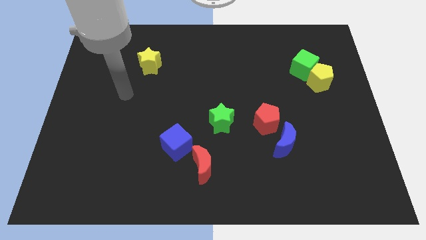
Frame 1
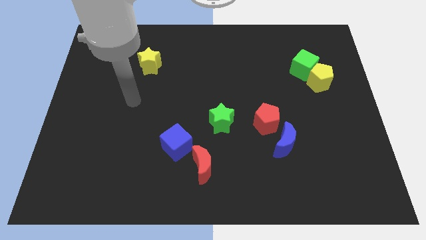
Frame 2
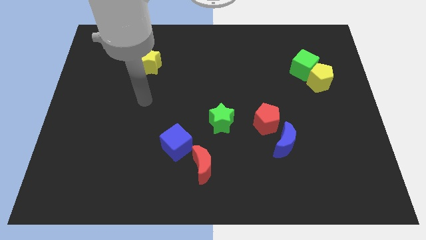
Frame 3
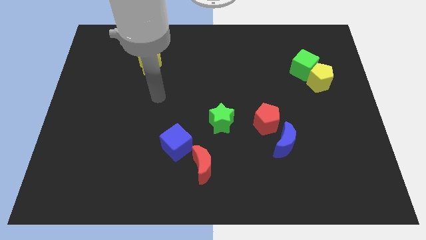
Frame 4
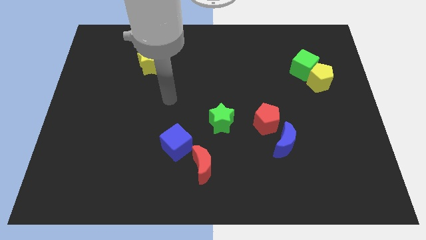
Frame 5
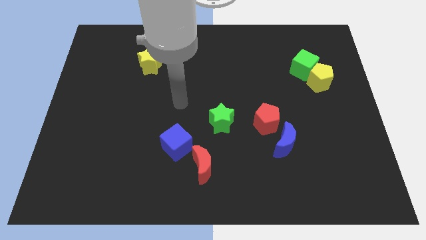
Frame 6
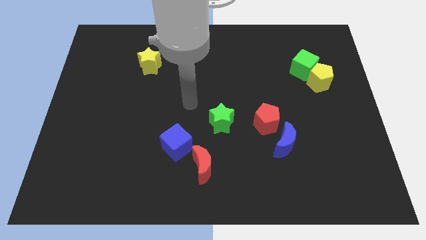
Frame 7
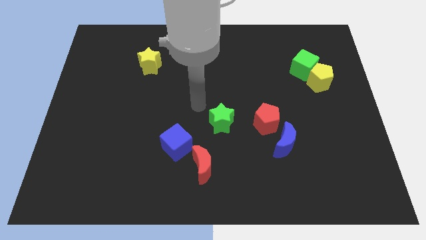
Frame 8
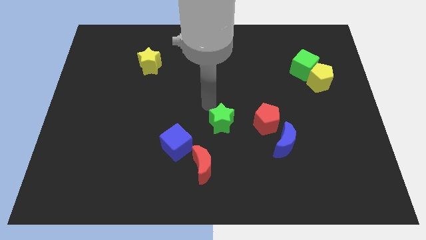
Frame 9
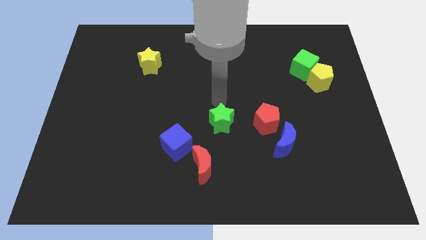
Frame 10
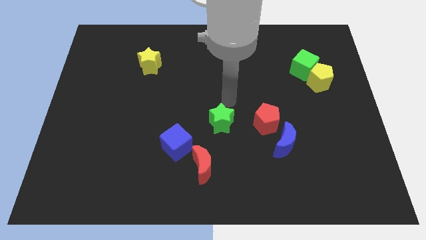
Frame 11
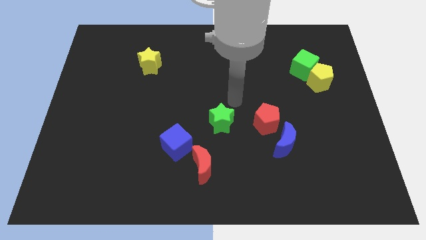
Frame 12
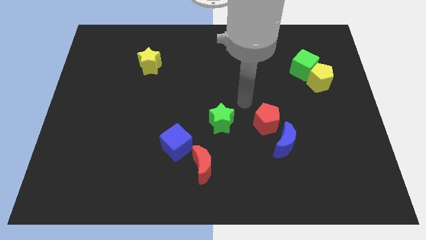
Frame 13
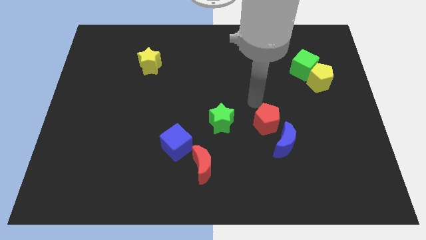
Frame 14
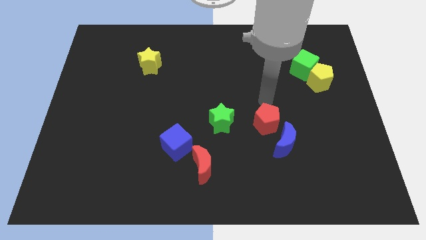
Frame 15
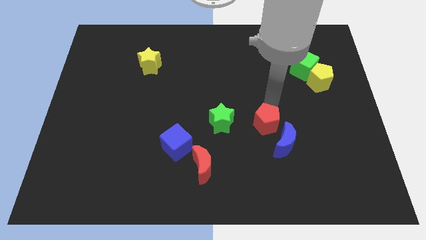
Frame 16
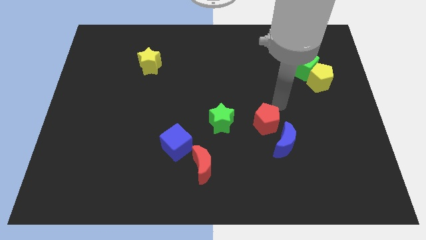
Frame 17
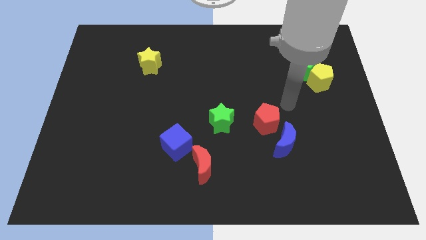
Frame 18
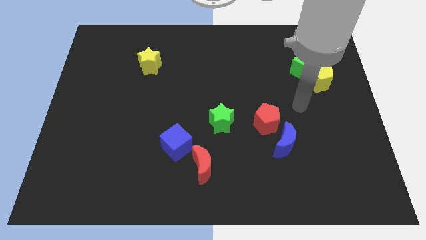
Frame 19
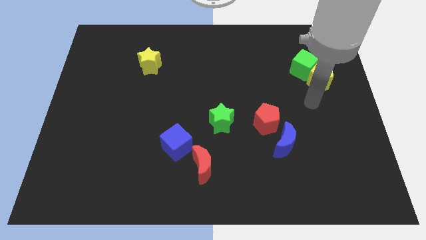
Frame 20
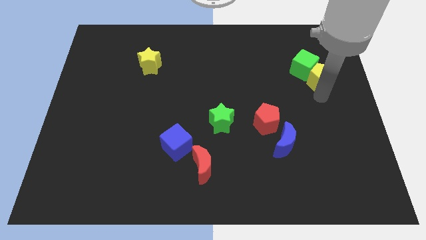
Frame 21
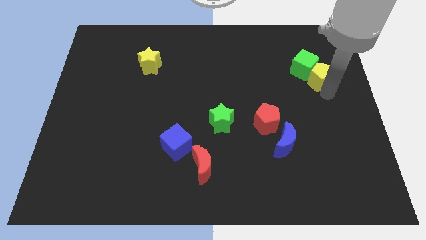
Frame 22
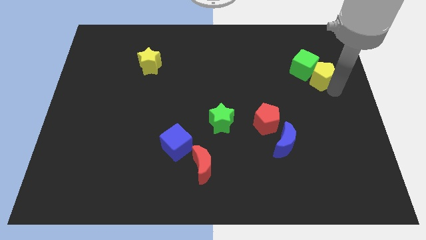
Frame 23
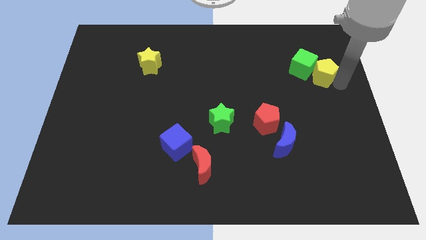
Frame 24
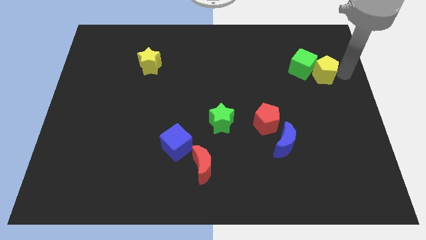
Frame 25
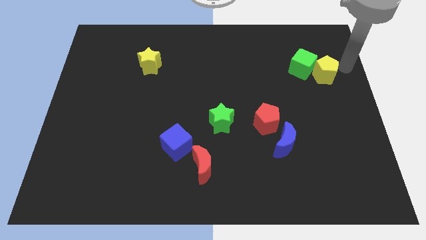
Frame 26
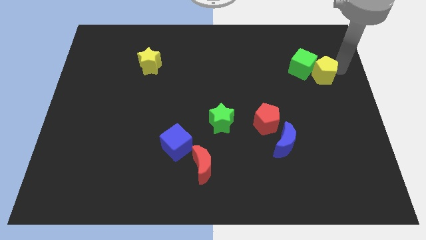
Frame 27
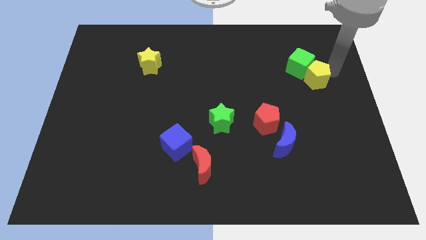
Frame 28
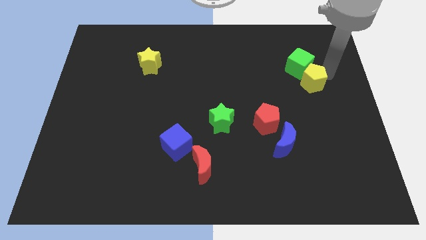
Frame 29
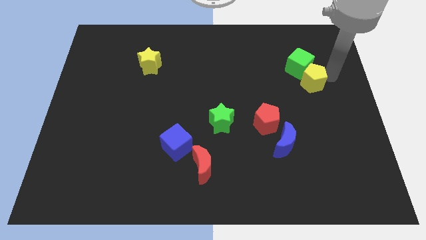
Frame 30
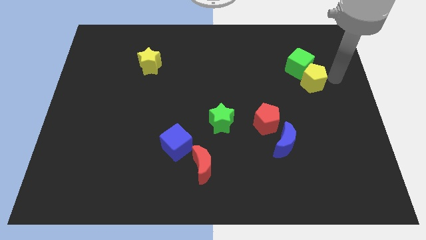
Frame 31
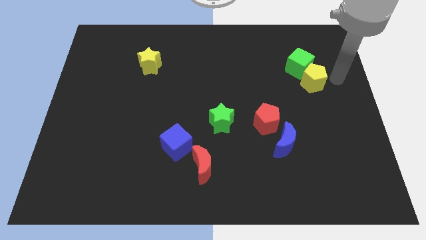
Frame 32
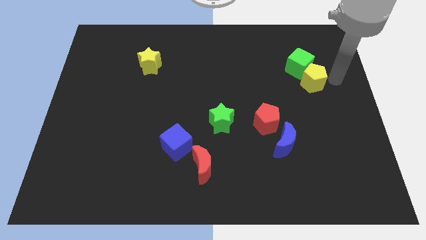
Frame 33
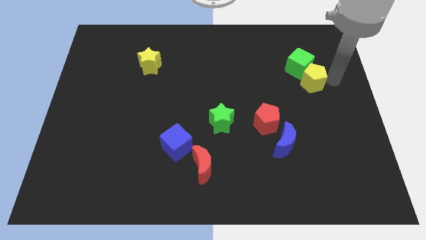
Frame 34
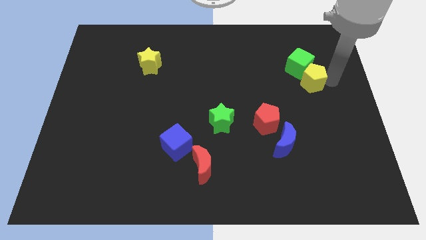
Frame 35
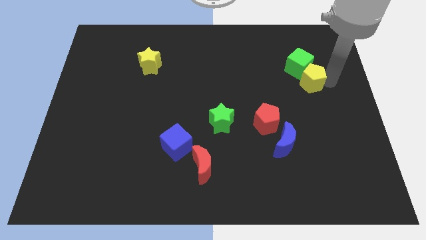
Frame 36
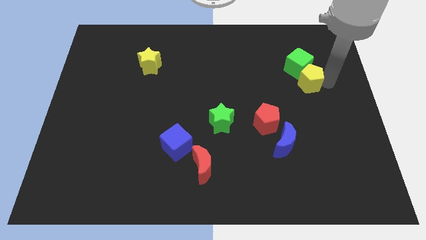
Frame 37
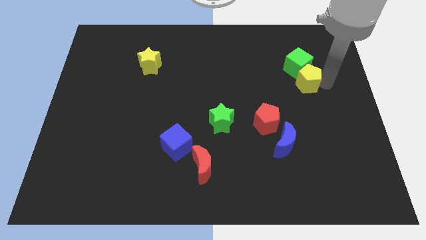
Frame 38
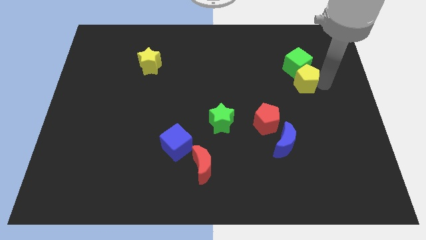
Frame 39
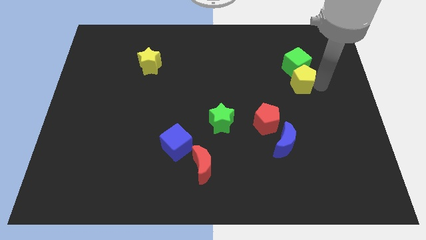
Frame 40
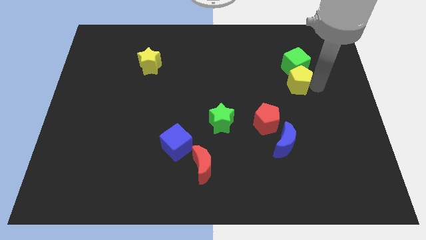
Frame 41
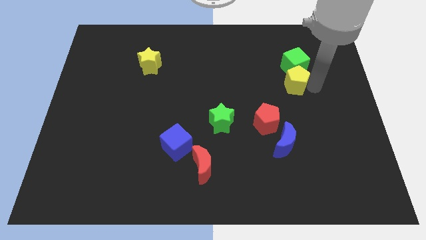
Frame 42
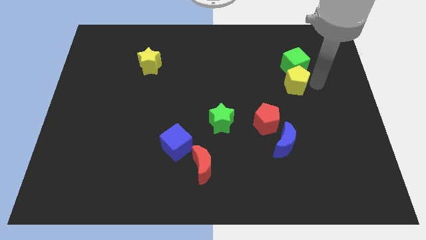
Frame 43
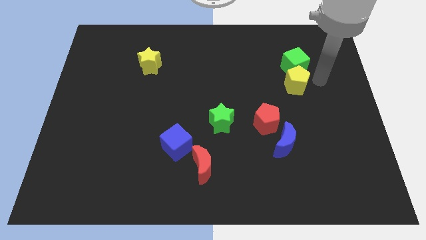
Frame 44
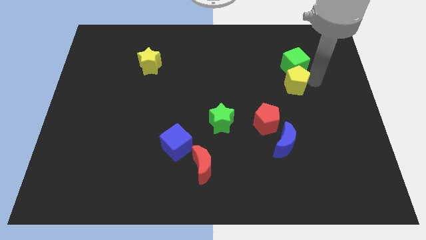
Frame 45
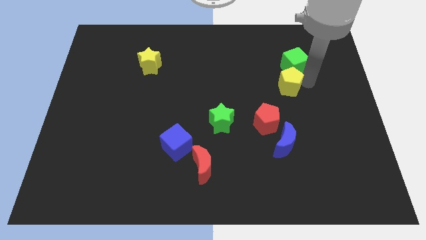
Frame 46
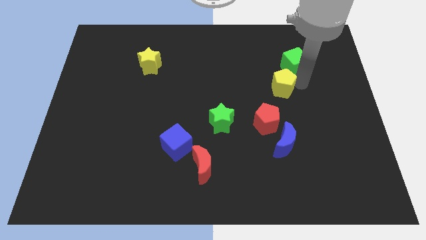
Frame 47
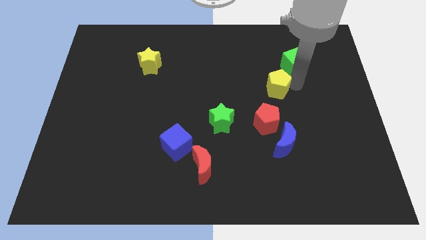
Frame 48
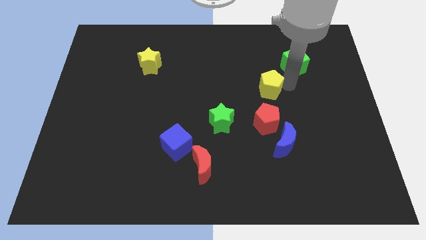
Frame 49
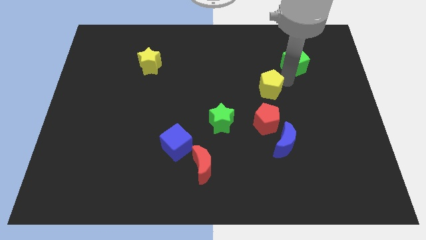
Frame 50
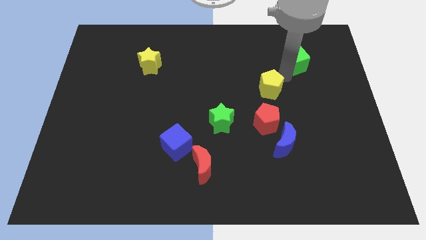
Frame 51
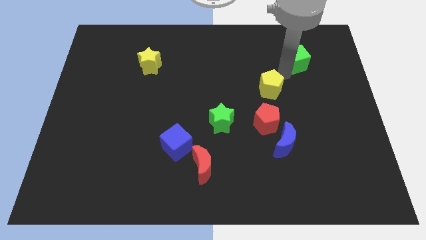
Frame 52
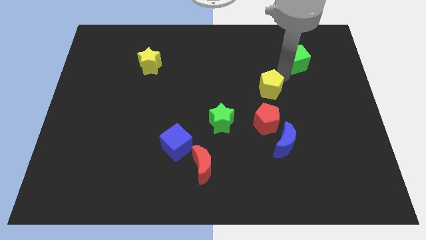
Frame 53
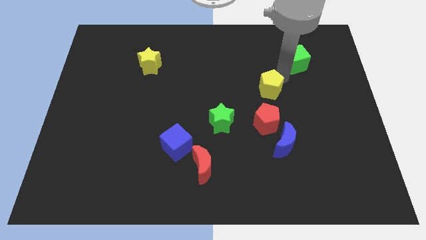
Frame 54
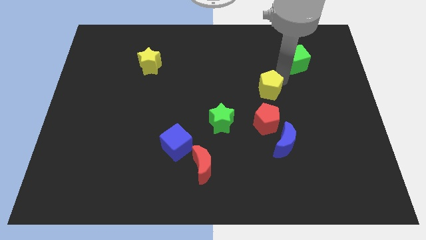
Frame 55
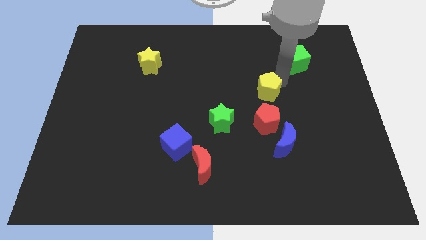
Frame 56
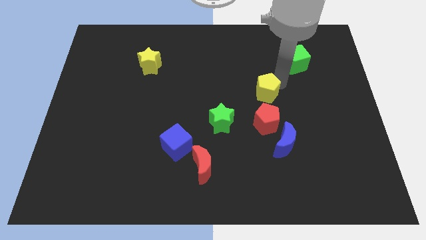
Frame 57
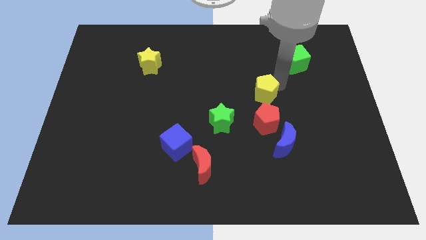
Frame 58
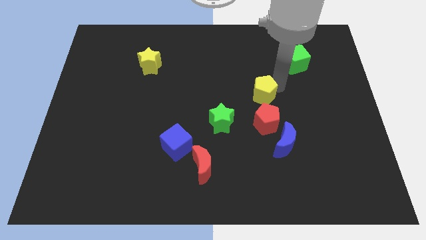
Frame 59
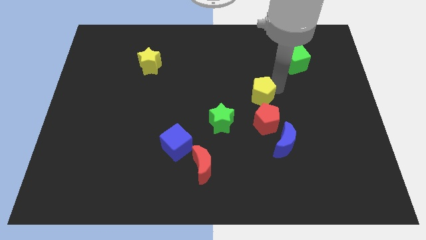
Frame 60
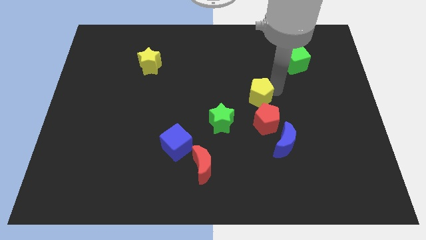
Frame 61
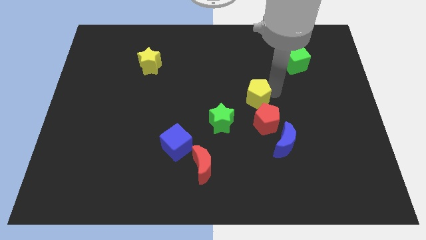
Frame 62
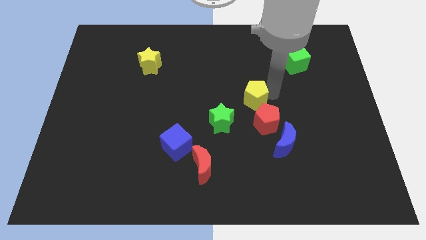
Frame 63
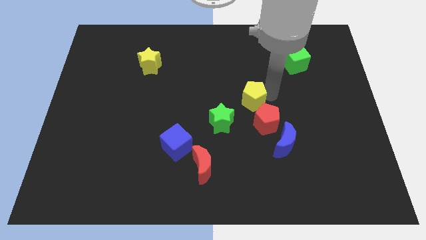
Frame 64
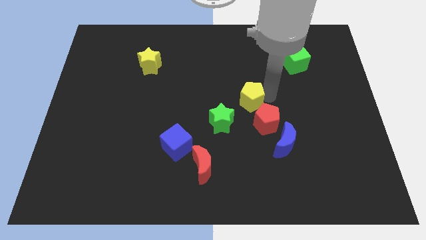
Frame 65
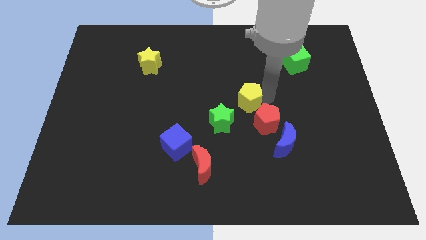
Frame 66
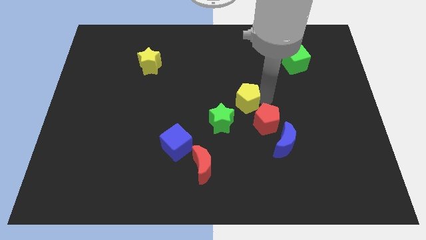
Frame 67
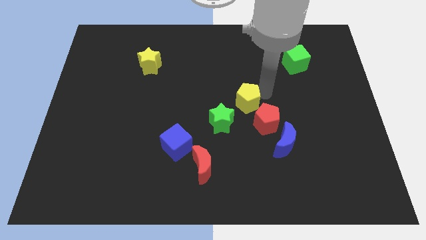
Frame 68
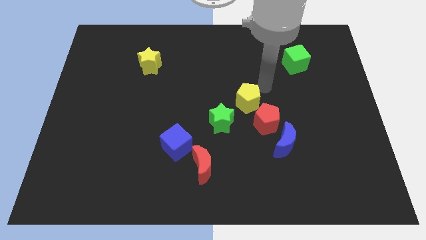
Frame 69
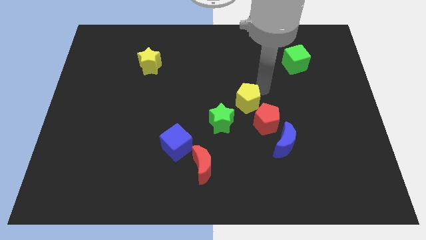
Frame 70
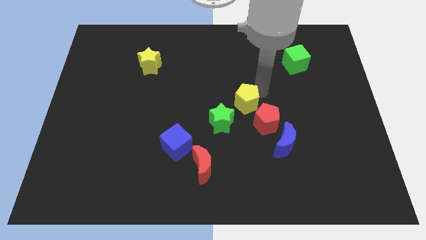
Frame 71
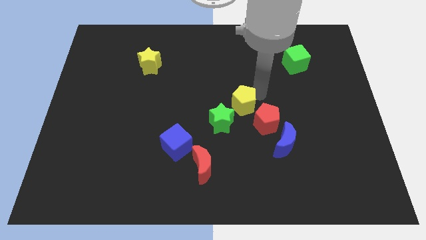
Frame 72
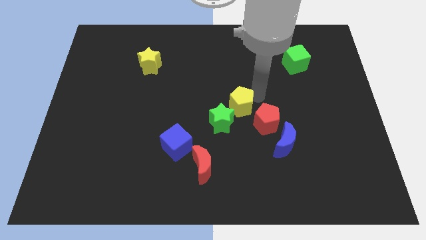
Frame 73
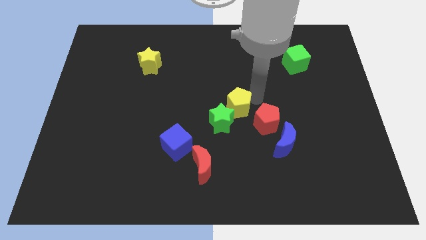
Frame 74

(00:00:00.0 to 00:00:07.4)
slide the yellow pentagon towards the green star
